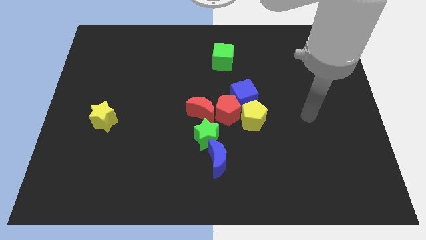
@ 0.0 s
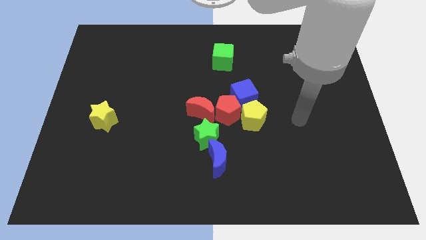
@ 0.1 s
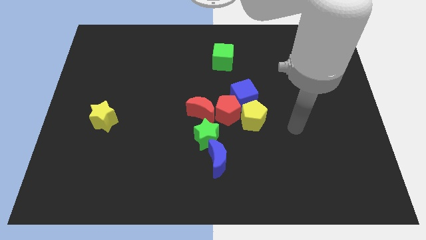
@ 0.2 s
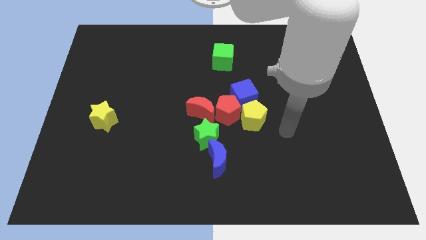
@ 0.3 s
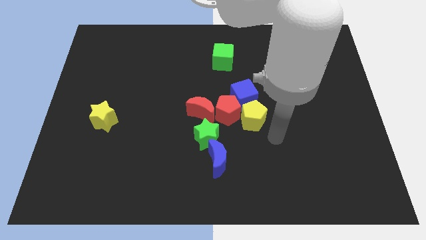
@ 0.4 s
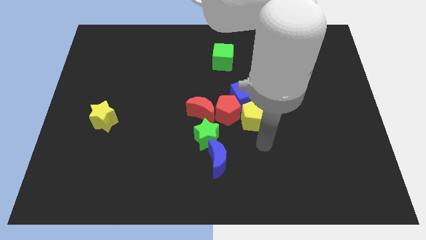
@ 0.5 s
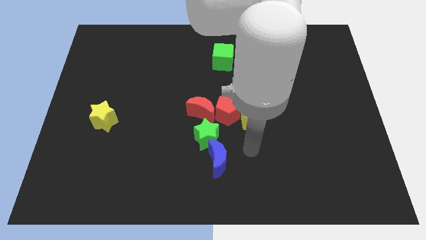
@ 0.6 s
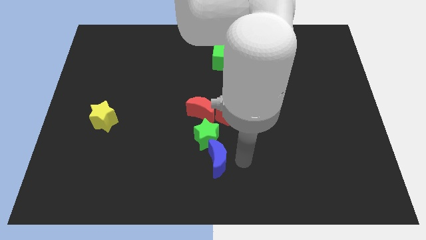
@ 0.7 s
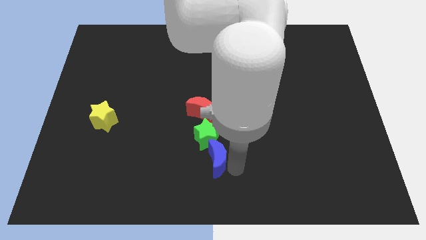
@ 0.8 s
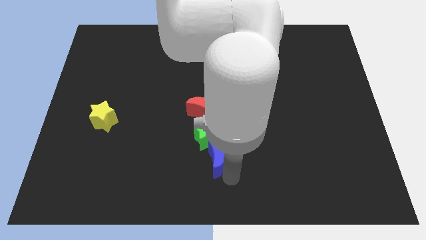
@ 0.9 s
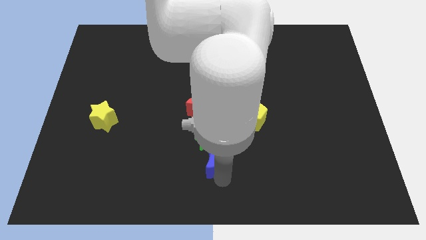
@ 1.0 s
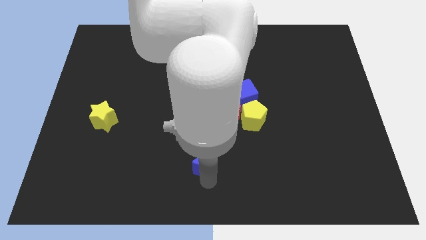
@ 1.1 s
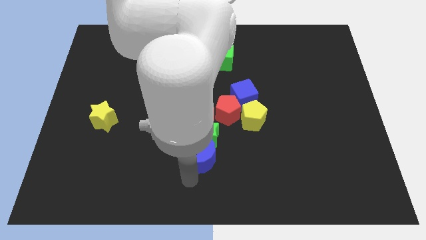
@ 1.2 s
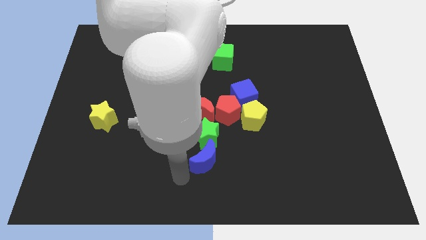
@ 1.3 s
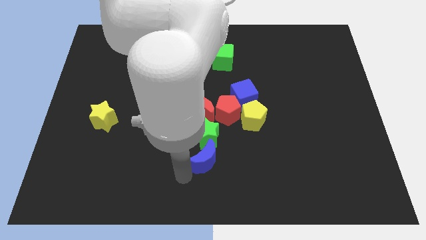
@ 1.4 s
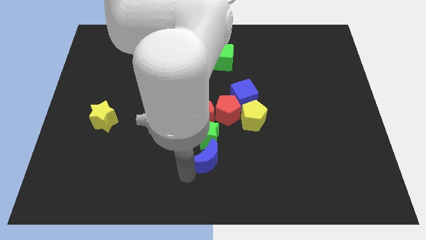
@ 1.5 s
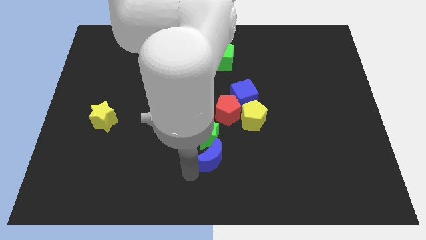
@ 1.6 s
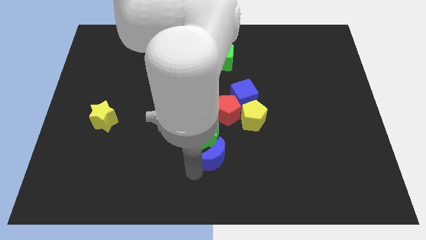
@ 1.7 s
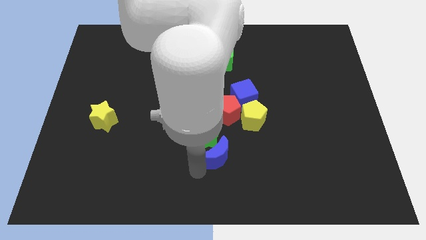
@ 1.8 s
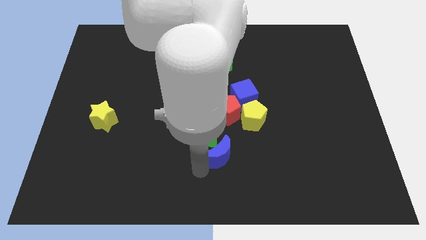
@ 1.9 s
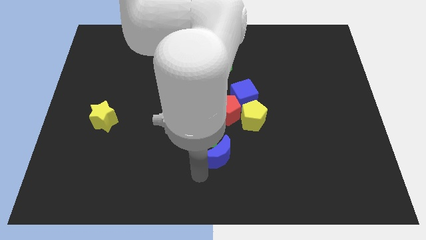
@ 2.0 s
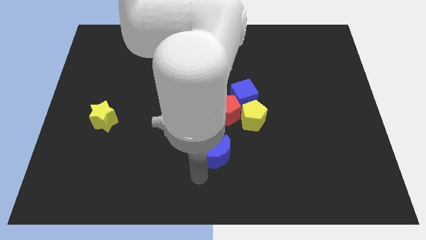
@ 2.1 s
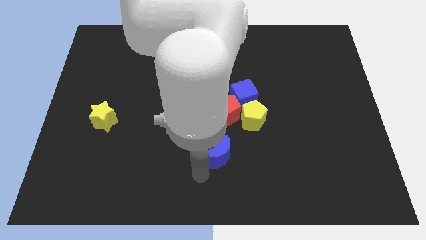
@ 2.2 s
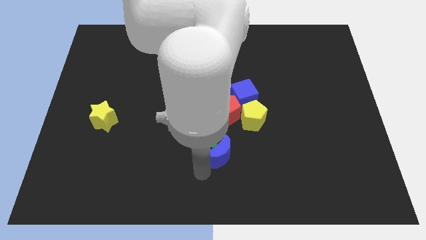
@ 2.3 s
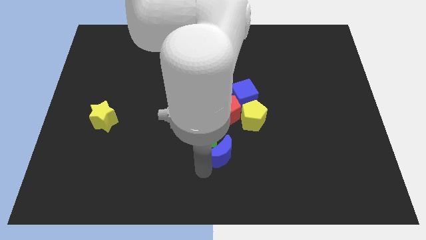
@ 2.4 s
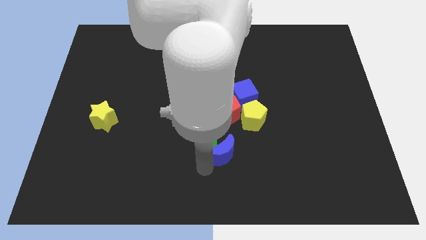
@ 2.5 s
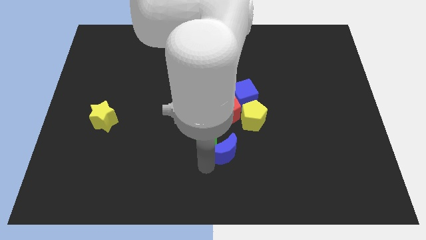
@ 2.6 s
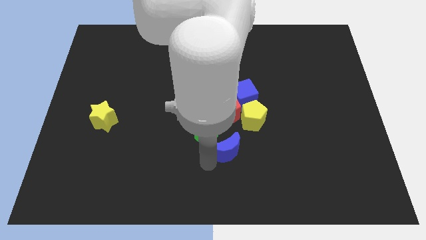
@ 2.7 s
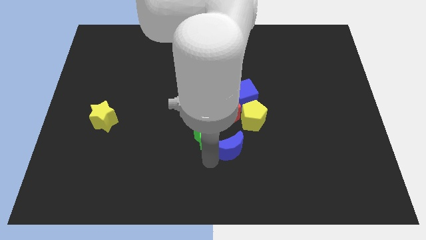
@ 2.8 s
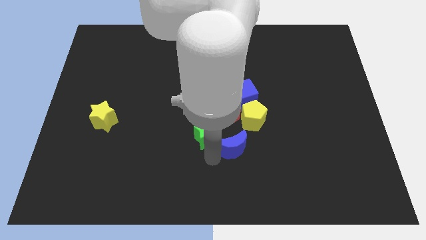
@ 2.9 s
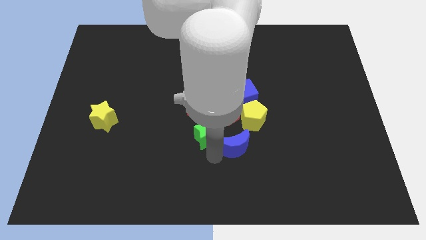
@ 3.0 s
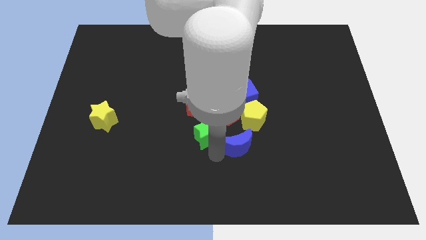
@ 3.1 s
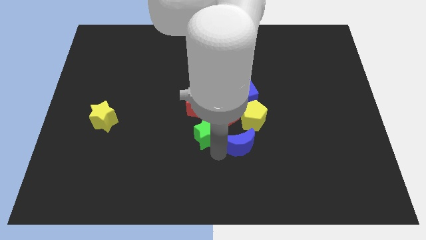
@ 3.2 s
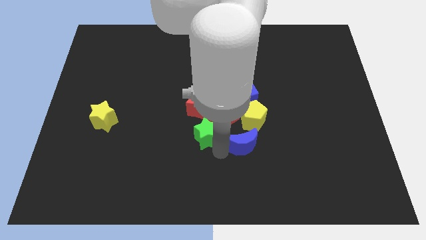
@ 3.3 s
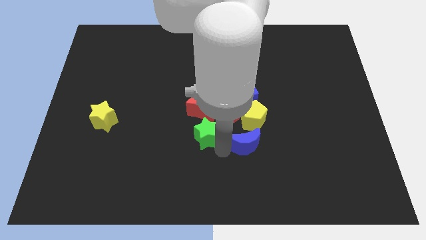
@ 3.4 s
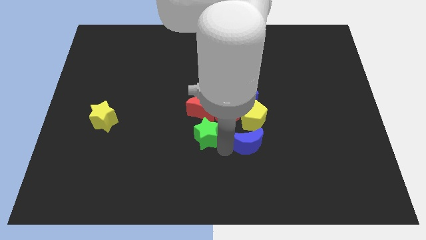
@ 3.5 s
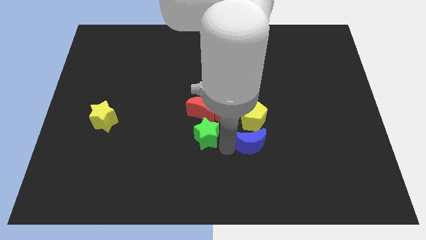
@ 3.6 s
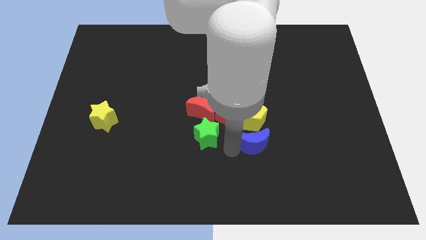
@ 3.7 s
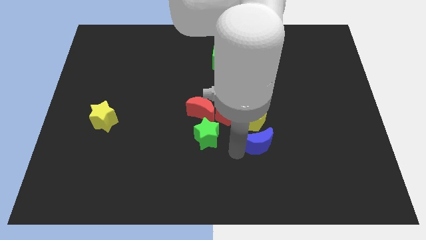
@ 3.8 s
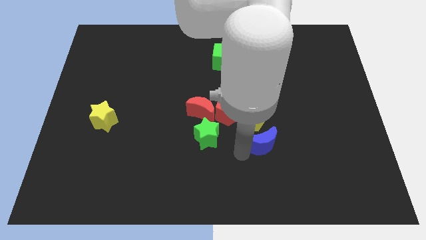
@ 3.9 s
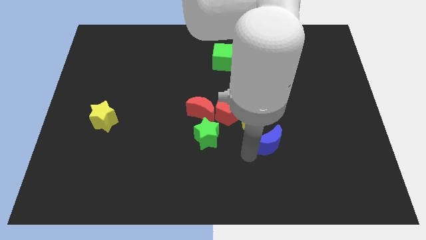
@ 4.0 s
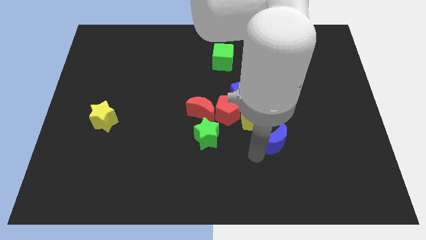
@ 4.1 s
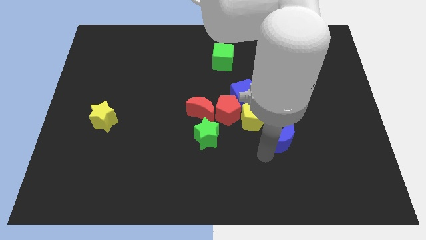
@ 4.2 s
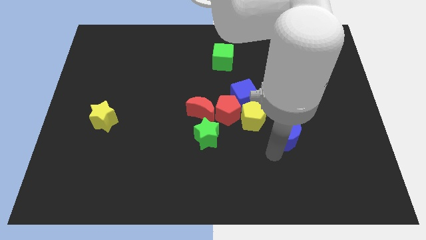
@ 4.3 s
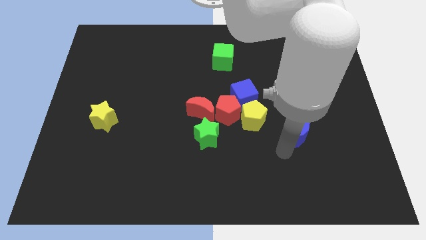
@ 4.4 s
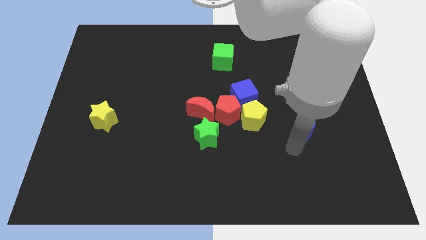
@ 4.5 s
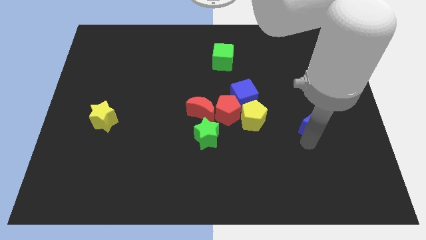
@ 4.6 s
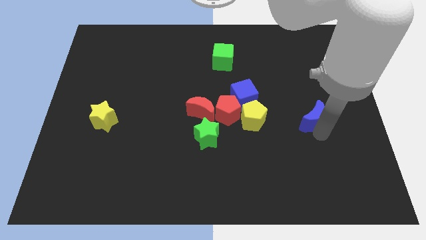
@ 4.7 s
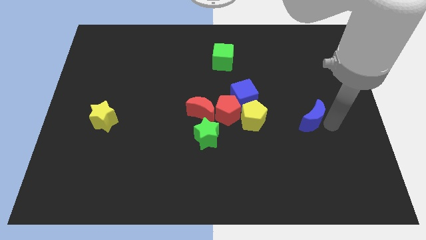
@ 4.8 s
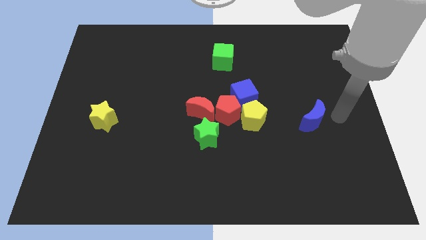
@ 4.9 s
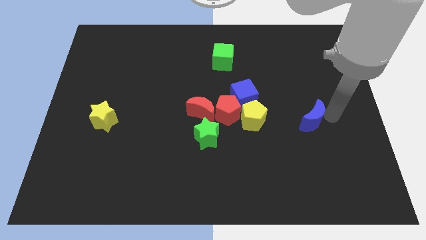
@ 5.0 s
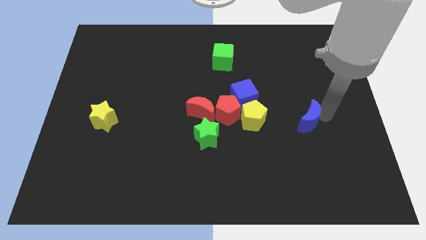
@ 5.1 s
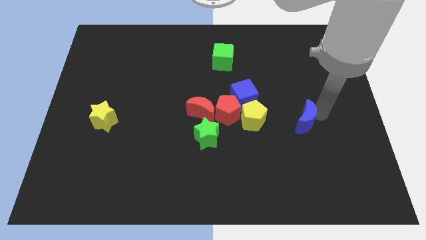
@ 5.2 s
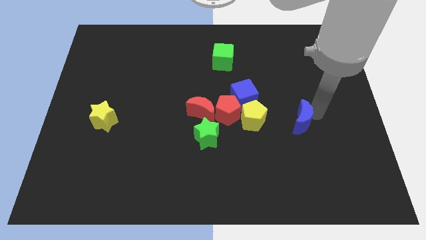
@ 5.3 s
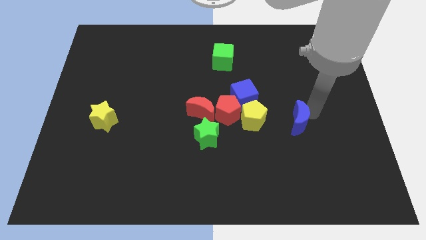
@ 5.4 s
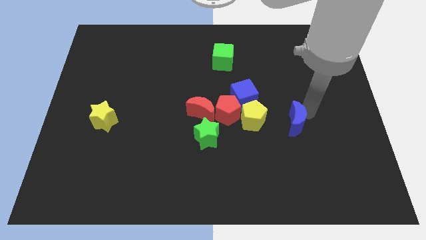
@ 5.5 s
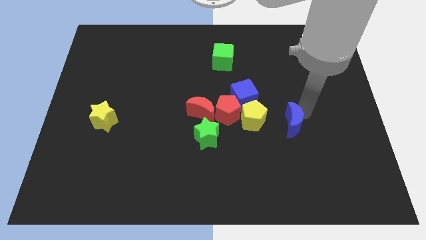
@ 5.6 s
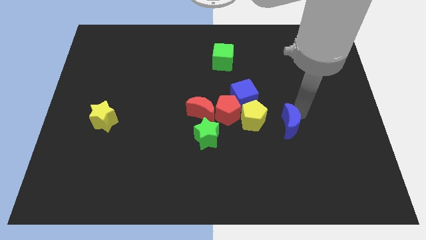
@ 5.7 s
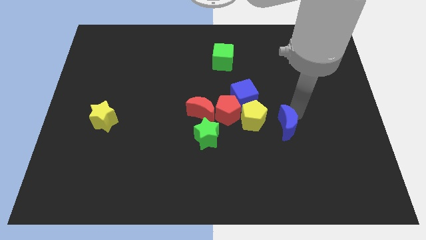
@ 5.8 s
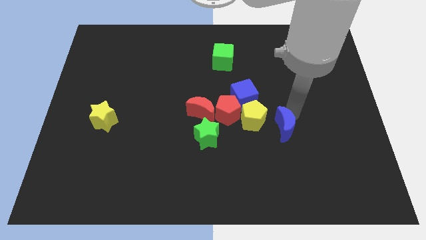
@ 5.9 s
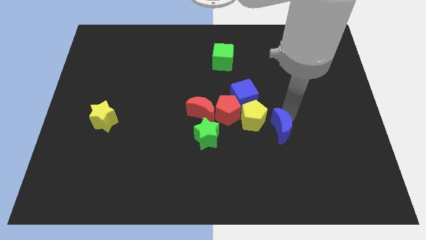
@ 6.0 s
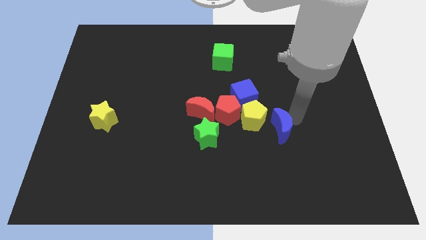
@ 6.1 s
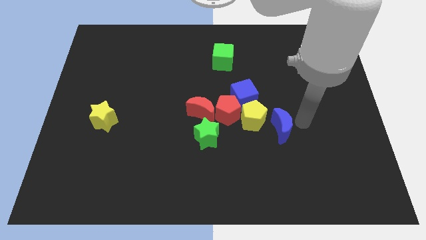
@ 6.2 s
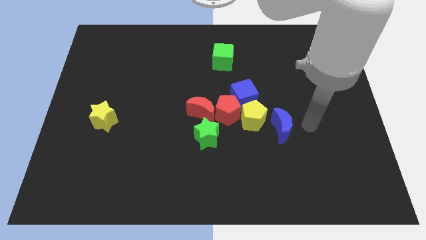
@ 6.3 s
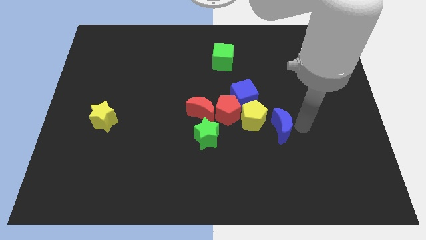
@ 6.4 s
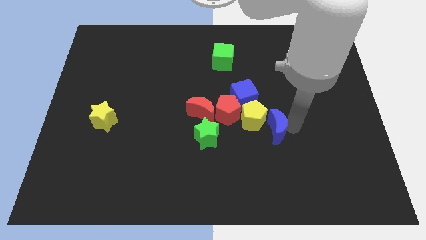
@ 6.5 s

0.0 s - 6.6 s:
move the blue moon to the yellow pentagon

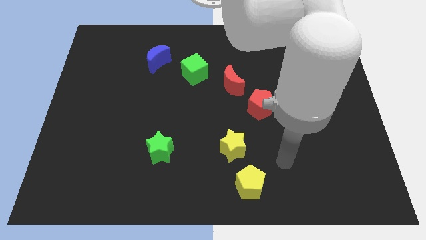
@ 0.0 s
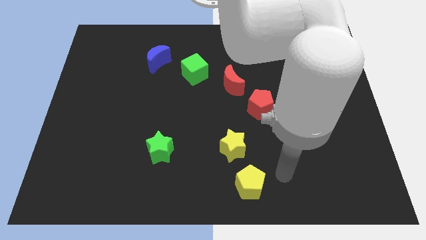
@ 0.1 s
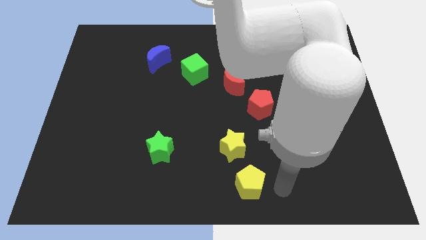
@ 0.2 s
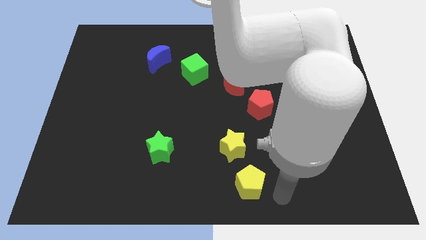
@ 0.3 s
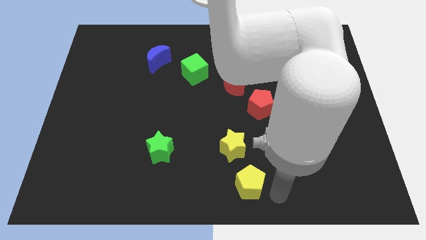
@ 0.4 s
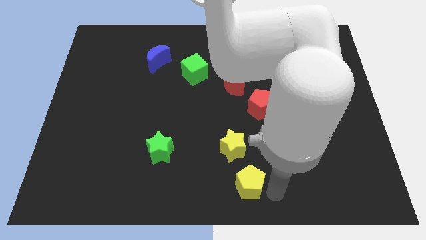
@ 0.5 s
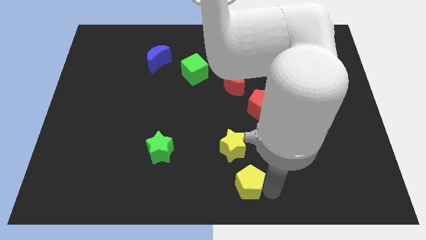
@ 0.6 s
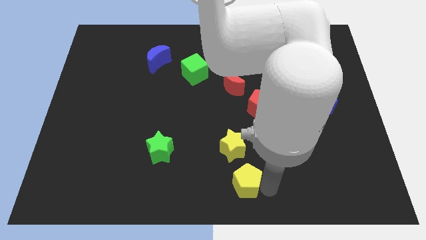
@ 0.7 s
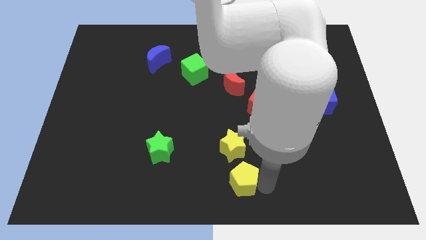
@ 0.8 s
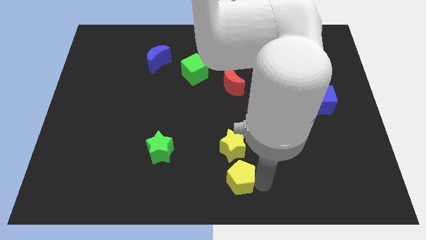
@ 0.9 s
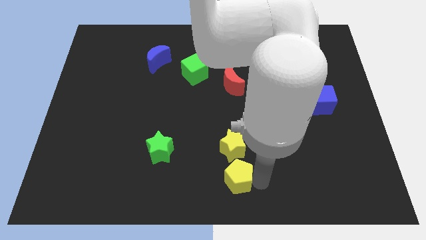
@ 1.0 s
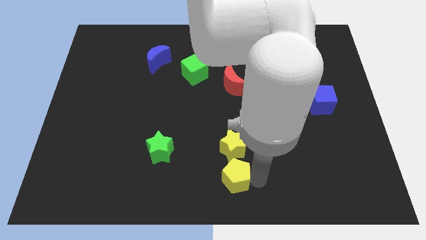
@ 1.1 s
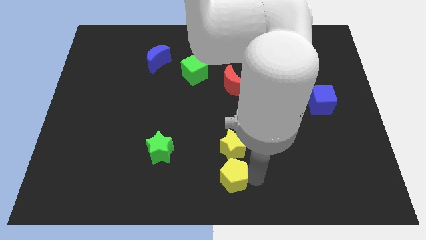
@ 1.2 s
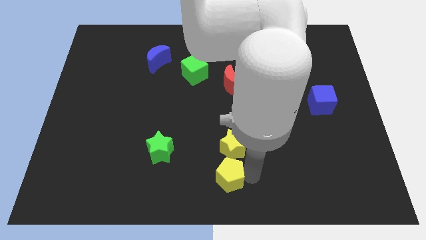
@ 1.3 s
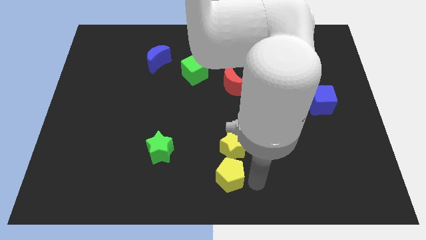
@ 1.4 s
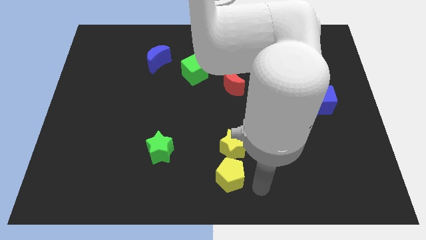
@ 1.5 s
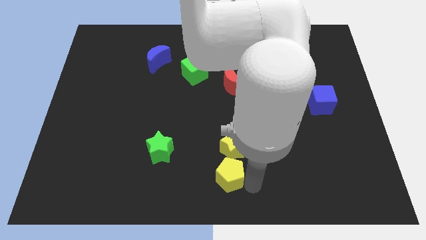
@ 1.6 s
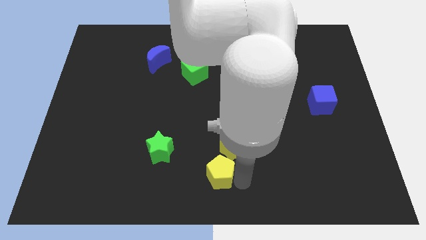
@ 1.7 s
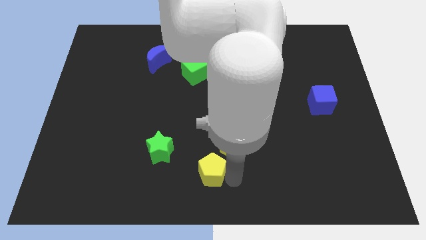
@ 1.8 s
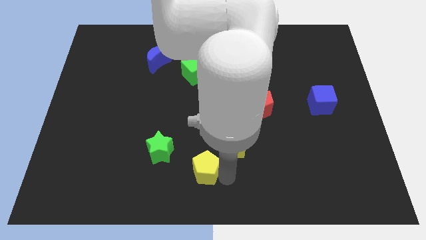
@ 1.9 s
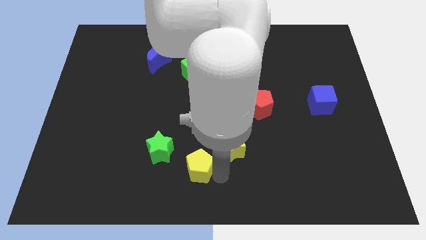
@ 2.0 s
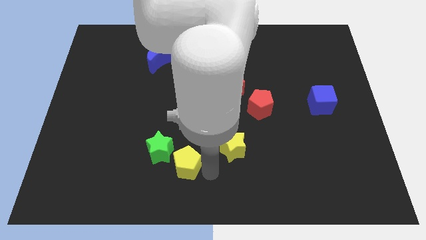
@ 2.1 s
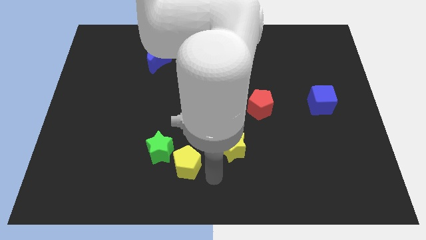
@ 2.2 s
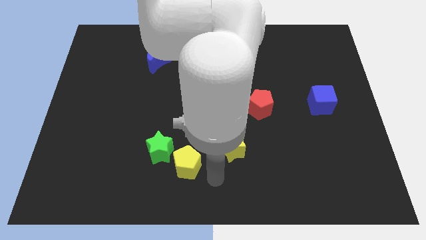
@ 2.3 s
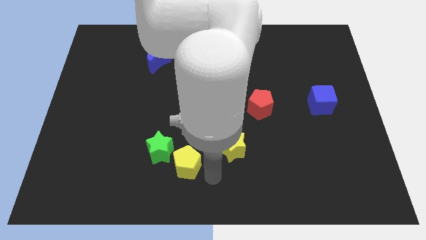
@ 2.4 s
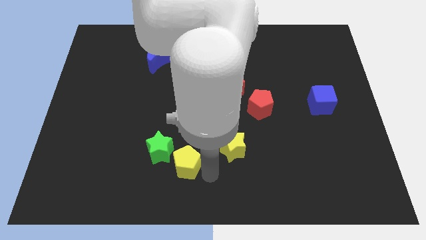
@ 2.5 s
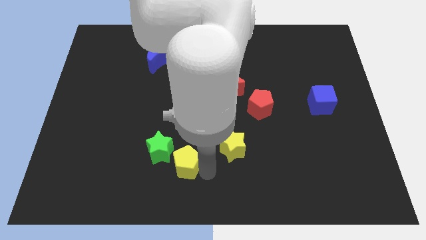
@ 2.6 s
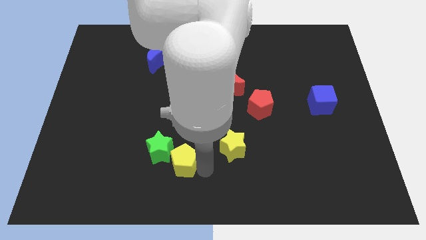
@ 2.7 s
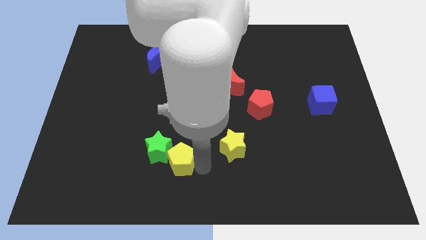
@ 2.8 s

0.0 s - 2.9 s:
push the yellow pentagon close to the green star
